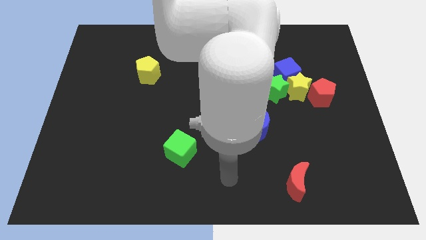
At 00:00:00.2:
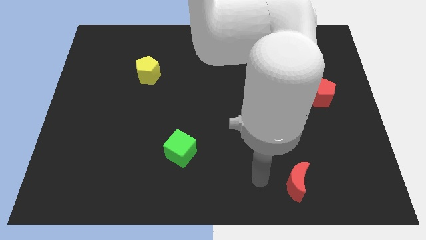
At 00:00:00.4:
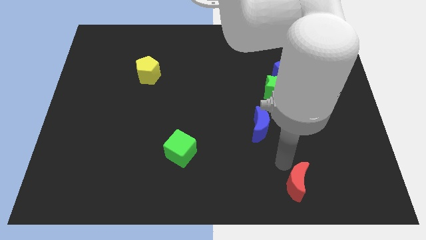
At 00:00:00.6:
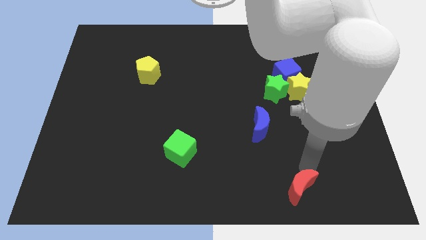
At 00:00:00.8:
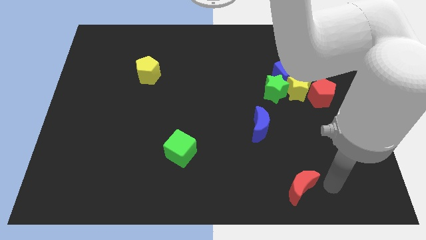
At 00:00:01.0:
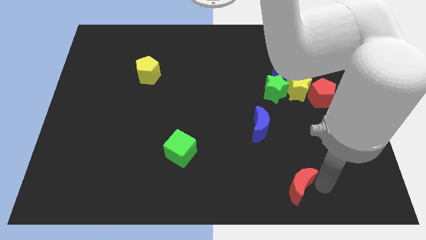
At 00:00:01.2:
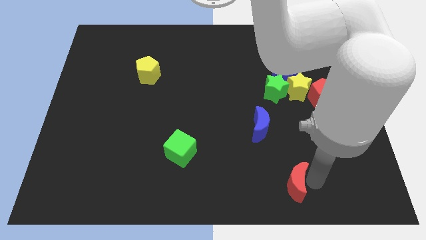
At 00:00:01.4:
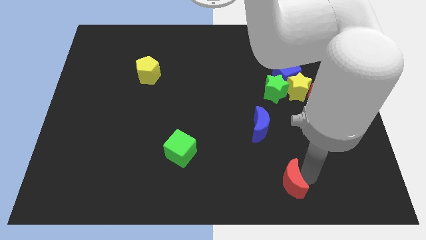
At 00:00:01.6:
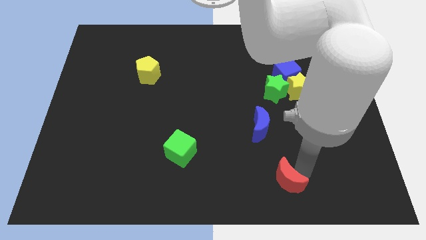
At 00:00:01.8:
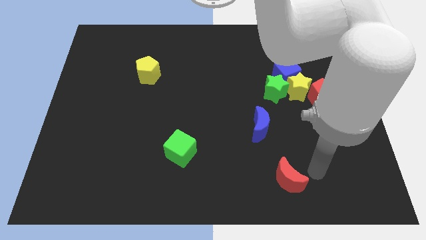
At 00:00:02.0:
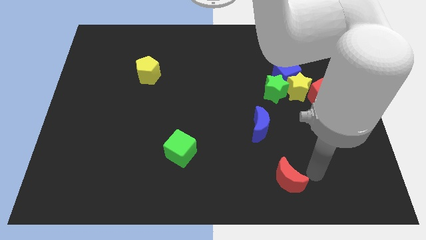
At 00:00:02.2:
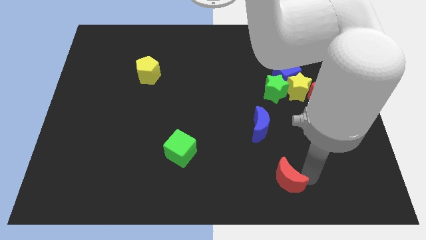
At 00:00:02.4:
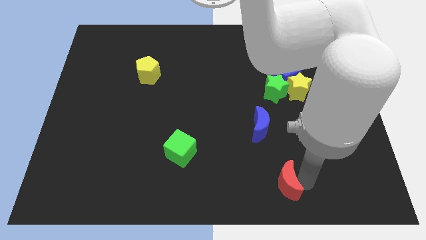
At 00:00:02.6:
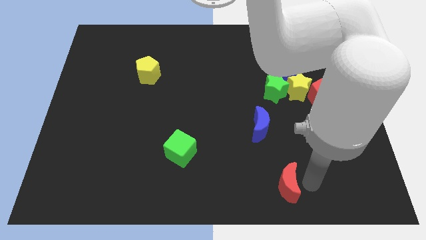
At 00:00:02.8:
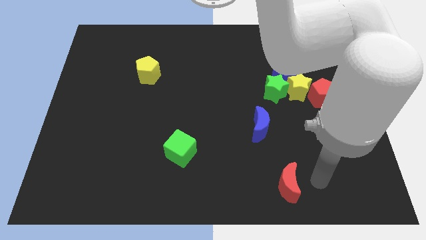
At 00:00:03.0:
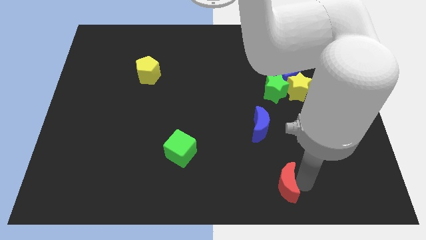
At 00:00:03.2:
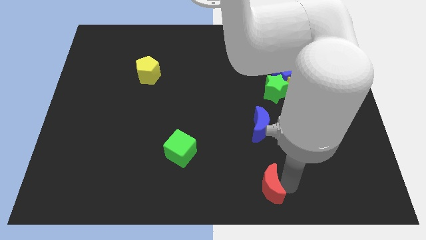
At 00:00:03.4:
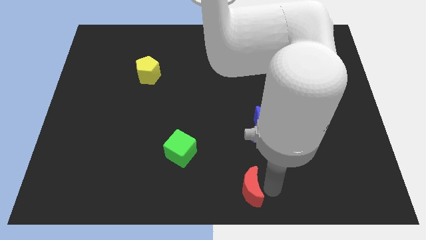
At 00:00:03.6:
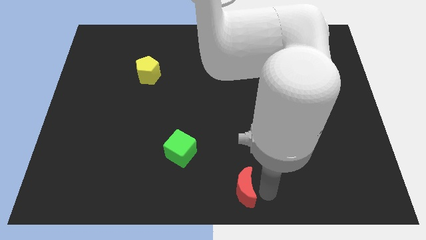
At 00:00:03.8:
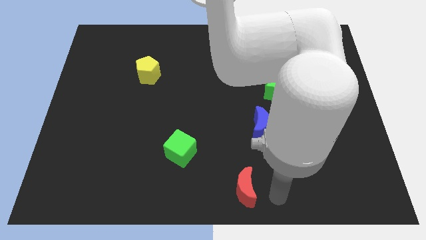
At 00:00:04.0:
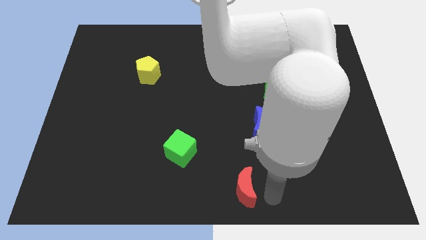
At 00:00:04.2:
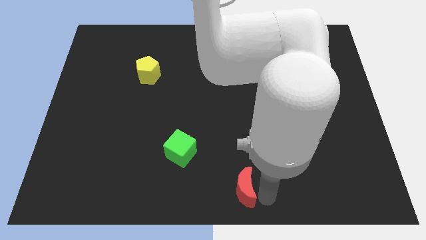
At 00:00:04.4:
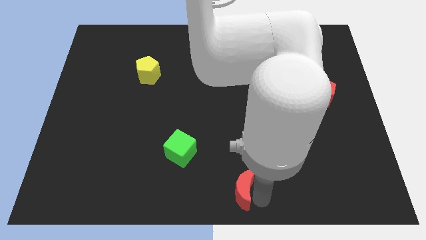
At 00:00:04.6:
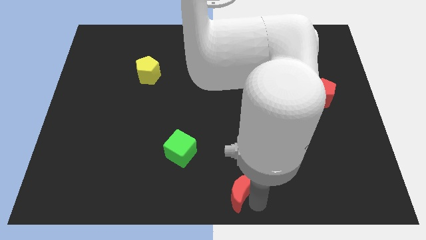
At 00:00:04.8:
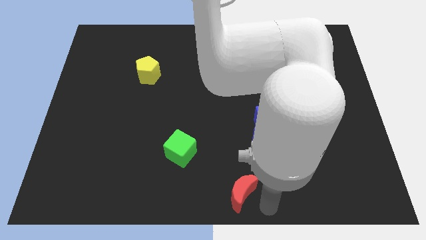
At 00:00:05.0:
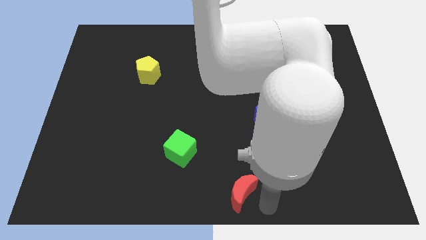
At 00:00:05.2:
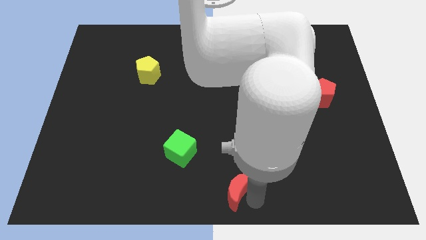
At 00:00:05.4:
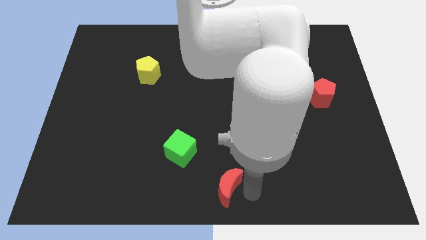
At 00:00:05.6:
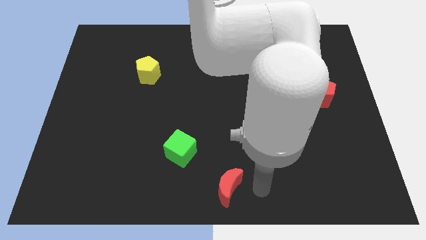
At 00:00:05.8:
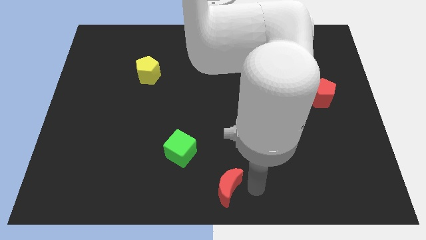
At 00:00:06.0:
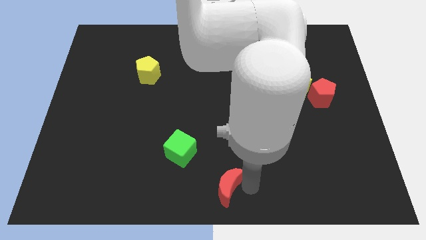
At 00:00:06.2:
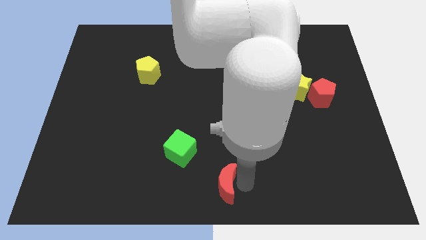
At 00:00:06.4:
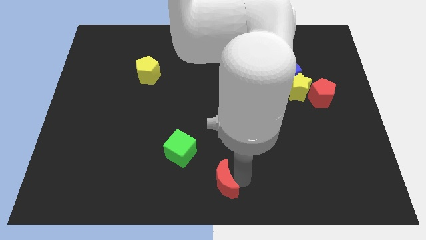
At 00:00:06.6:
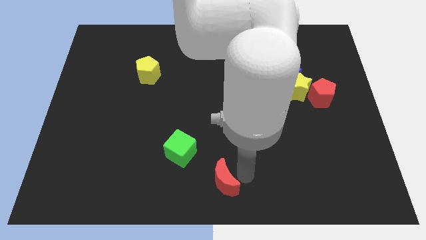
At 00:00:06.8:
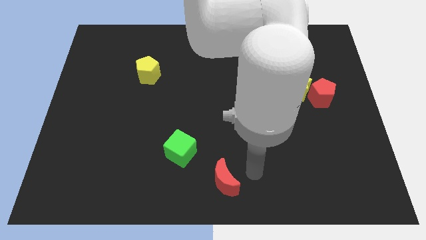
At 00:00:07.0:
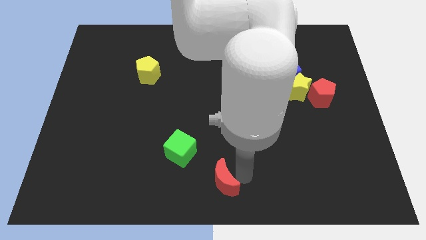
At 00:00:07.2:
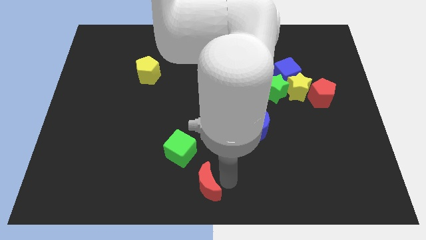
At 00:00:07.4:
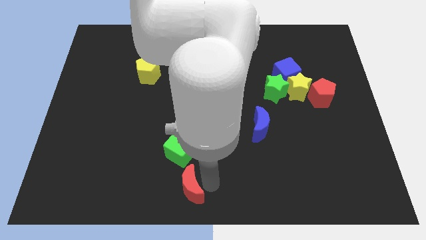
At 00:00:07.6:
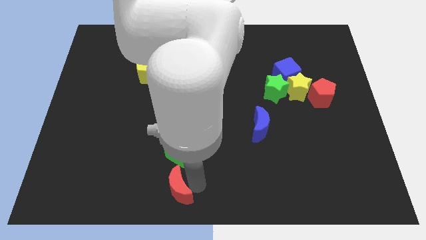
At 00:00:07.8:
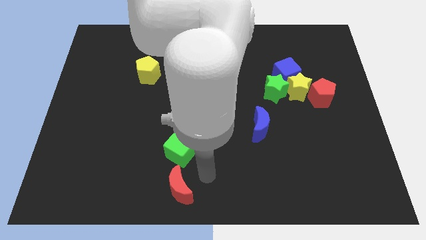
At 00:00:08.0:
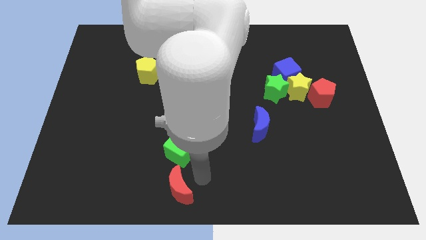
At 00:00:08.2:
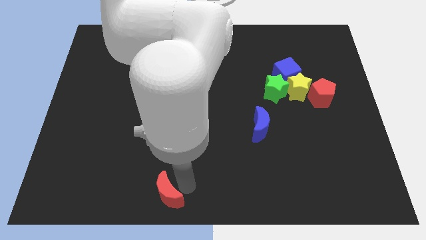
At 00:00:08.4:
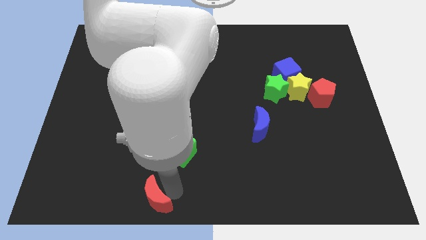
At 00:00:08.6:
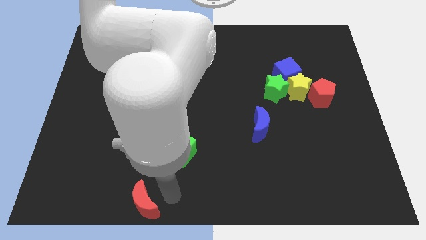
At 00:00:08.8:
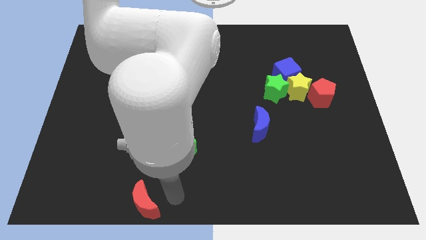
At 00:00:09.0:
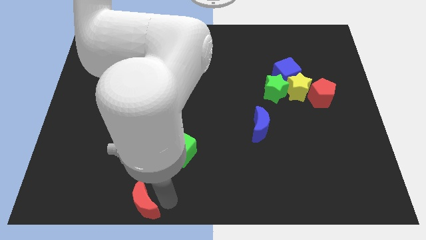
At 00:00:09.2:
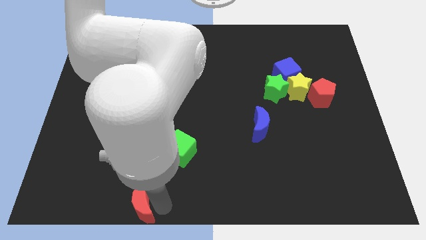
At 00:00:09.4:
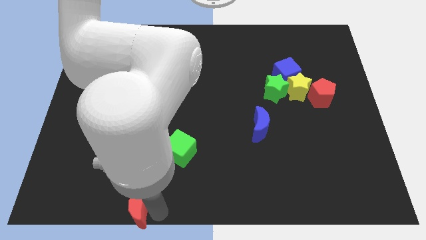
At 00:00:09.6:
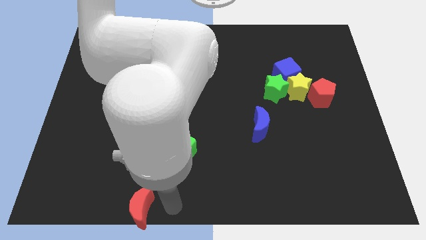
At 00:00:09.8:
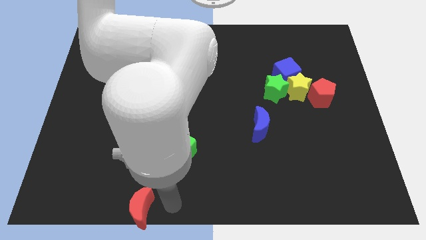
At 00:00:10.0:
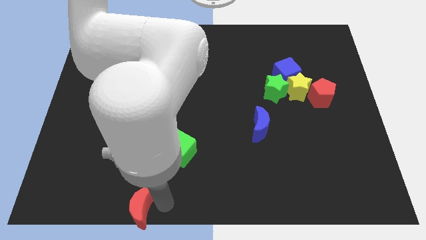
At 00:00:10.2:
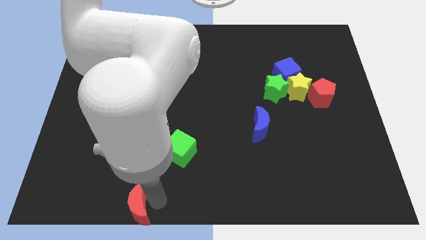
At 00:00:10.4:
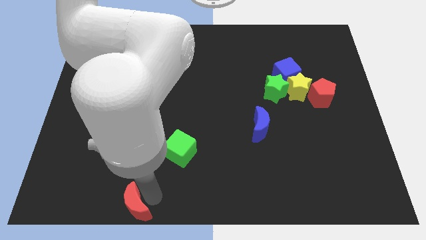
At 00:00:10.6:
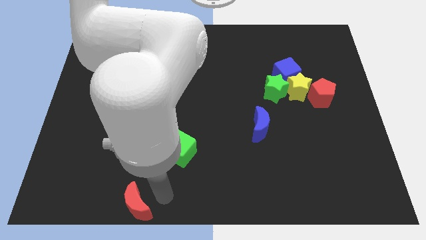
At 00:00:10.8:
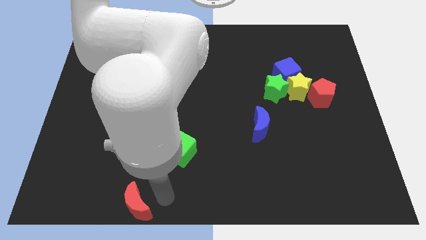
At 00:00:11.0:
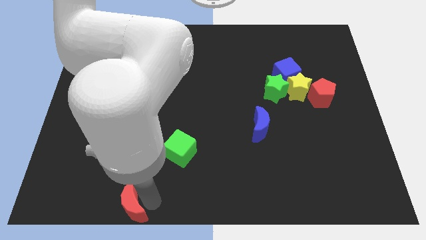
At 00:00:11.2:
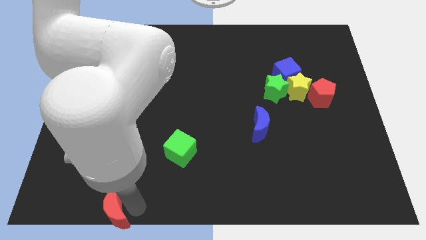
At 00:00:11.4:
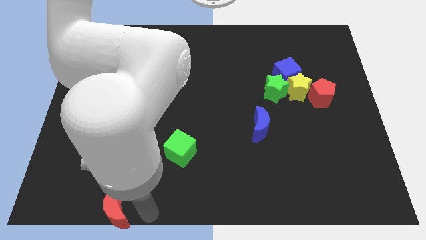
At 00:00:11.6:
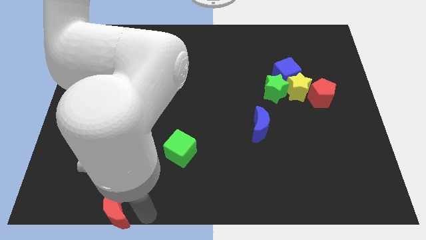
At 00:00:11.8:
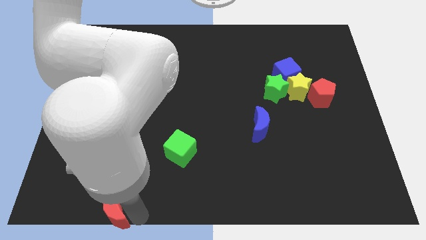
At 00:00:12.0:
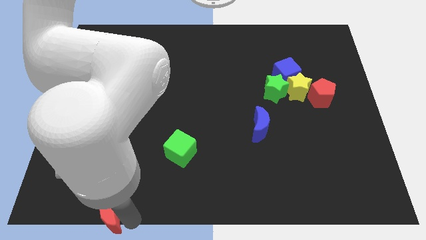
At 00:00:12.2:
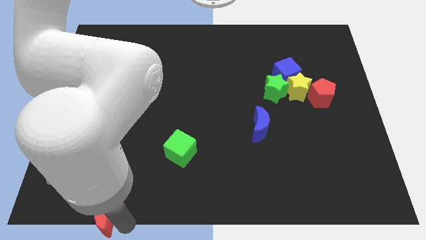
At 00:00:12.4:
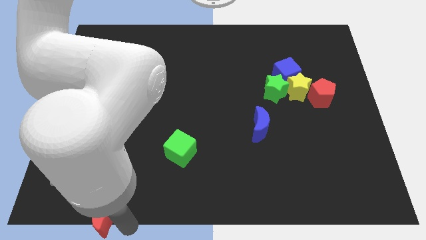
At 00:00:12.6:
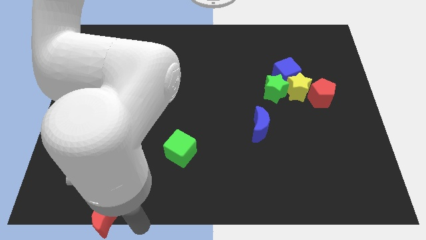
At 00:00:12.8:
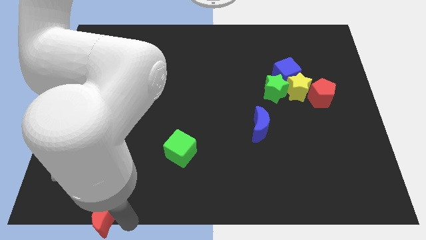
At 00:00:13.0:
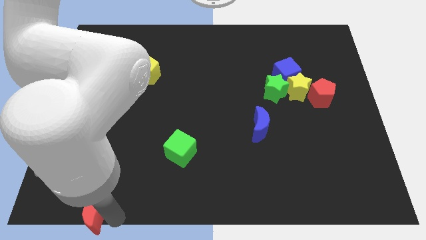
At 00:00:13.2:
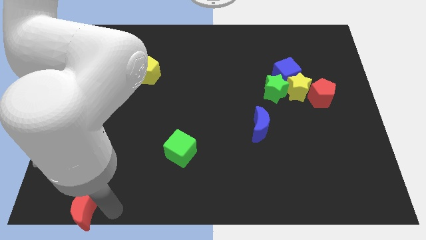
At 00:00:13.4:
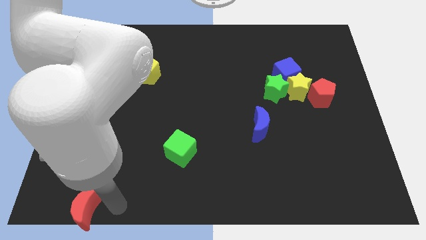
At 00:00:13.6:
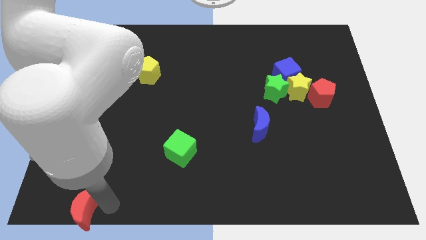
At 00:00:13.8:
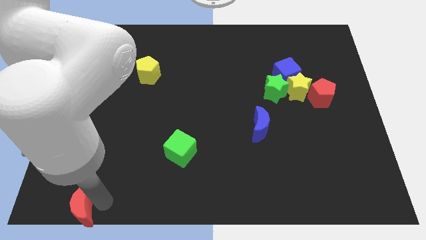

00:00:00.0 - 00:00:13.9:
put the red moon to the lower left corner
